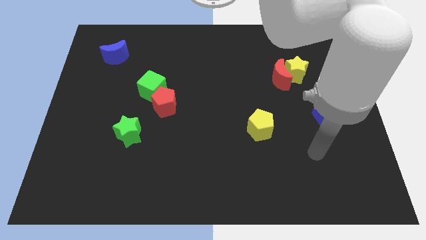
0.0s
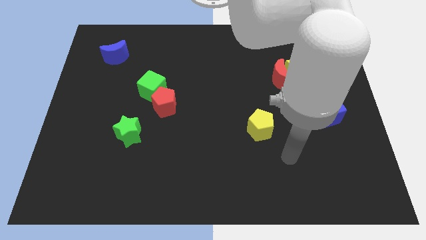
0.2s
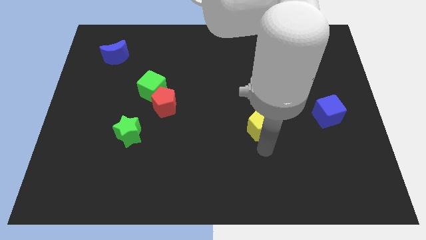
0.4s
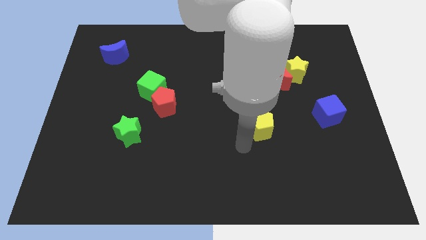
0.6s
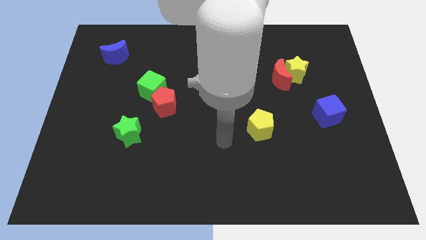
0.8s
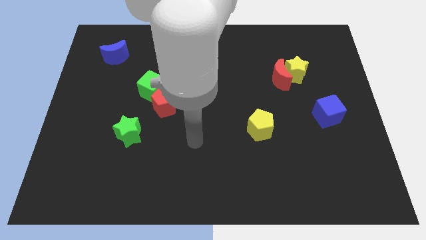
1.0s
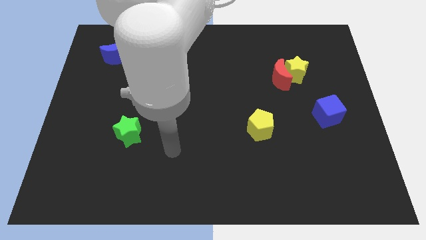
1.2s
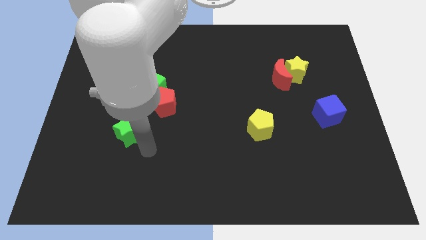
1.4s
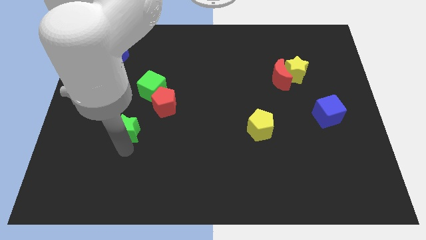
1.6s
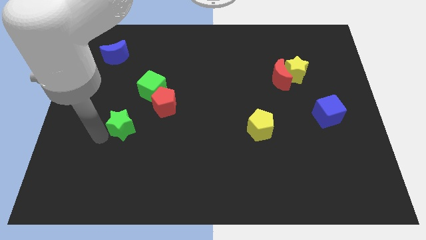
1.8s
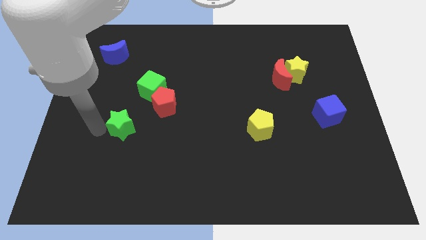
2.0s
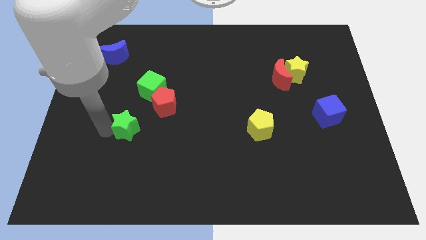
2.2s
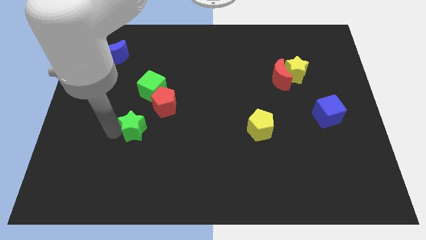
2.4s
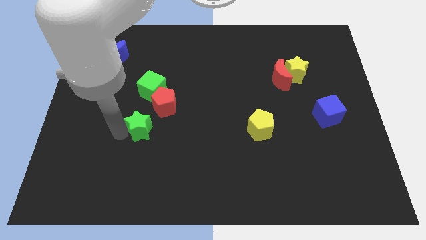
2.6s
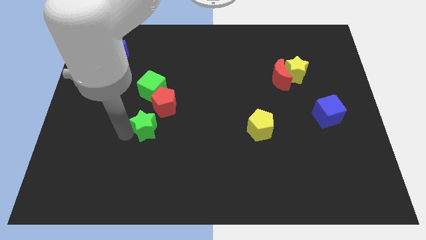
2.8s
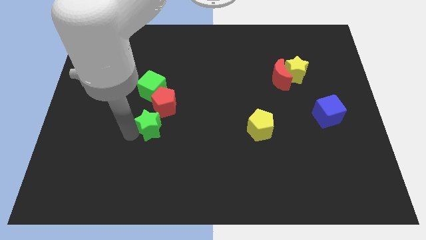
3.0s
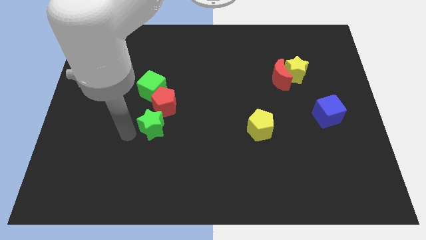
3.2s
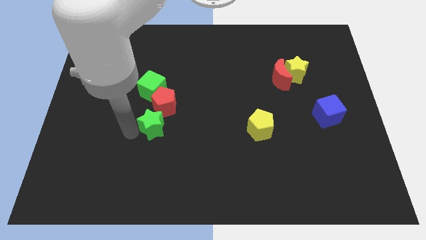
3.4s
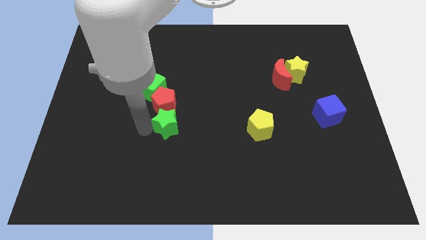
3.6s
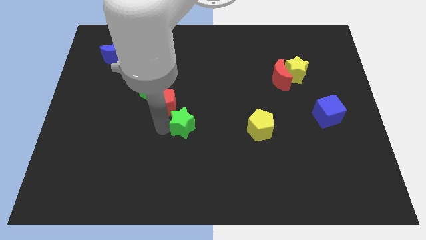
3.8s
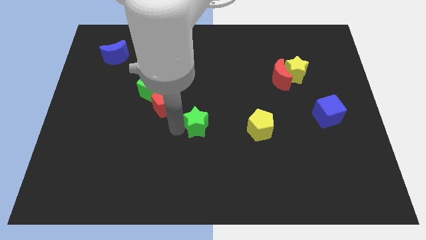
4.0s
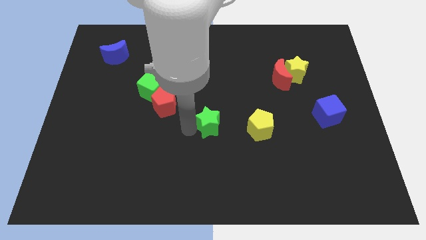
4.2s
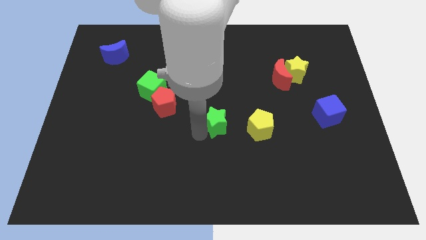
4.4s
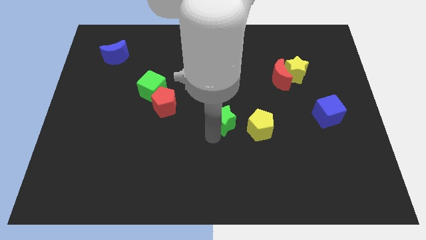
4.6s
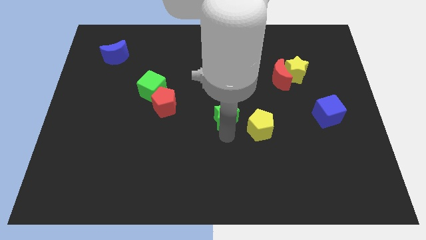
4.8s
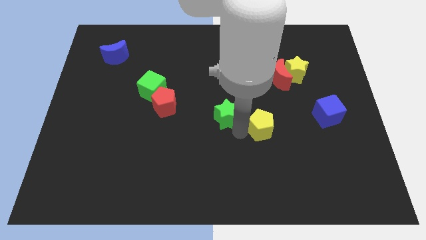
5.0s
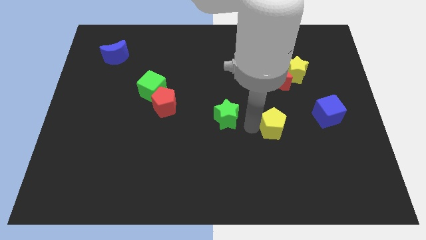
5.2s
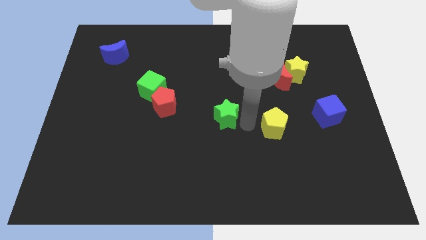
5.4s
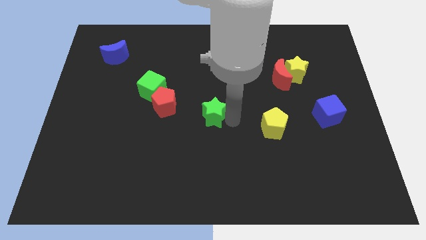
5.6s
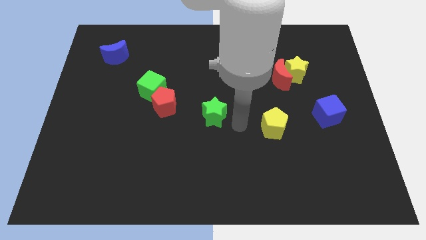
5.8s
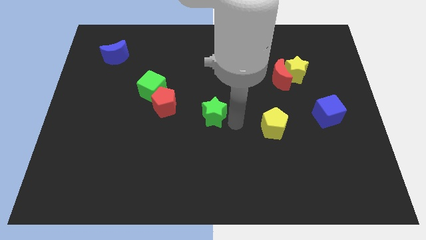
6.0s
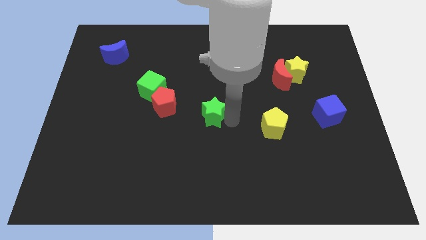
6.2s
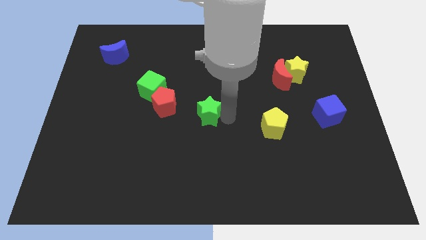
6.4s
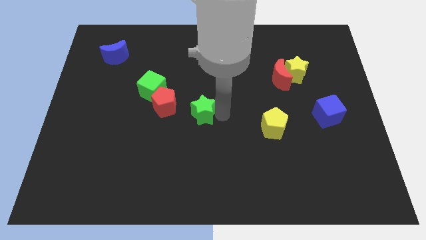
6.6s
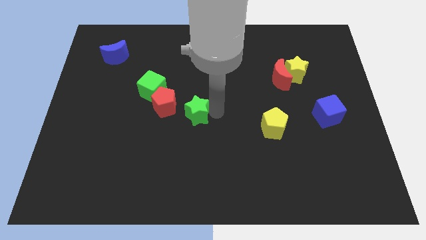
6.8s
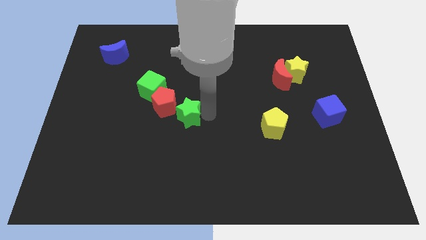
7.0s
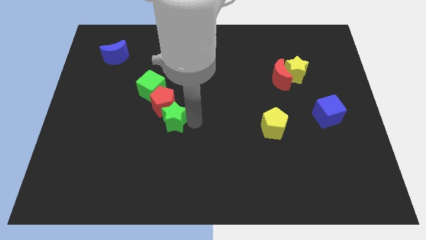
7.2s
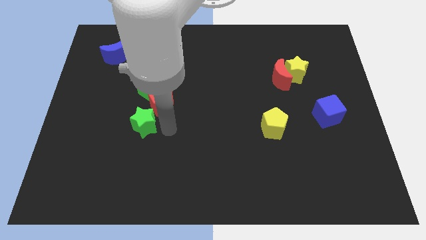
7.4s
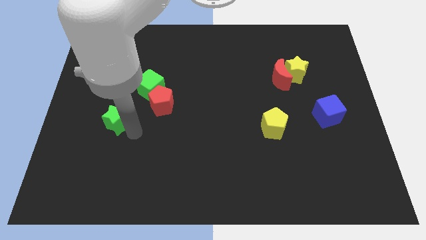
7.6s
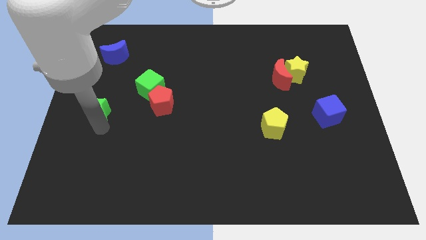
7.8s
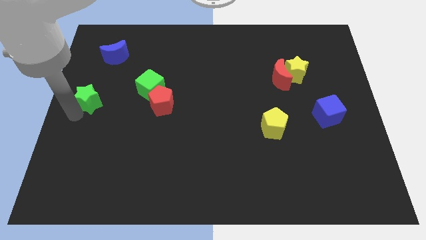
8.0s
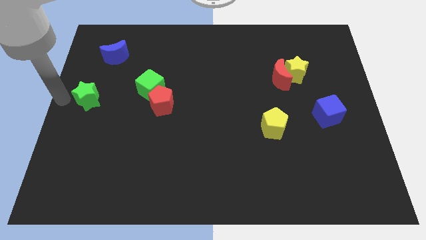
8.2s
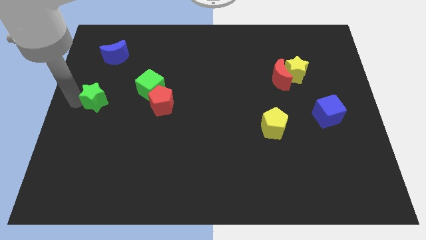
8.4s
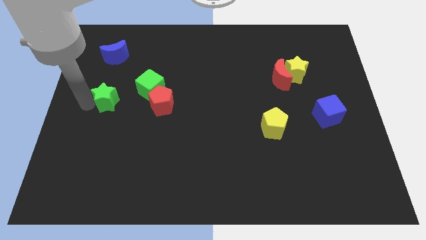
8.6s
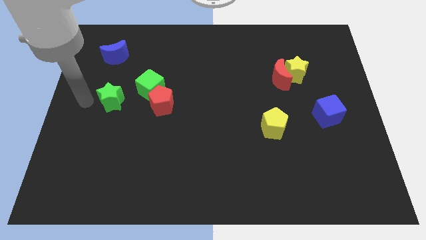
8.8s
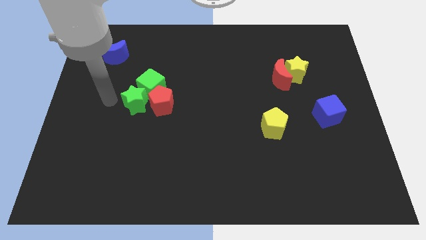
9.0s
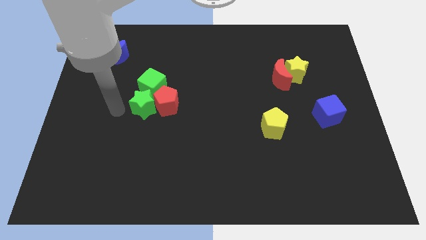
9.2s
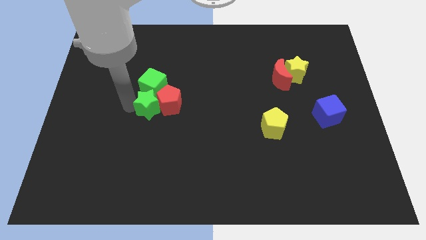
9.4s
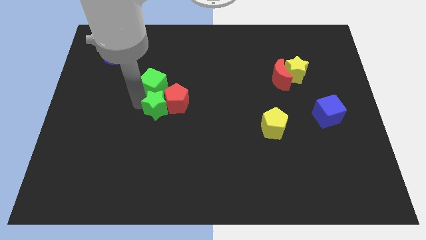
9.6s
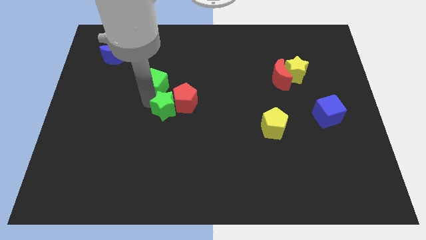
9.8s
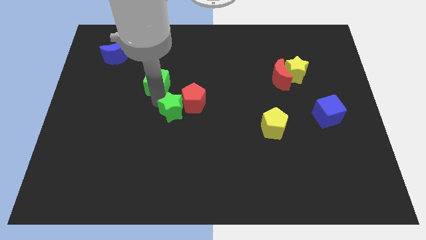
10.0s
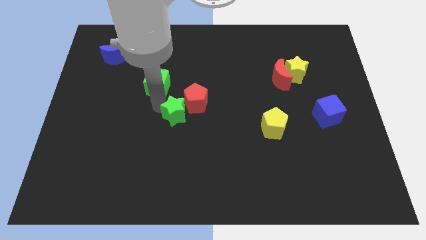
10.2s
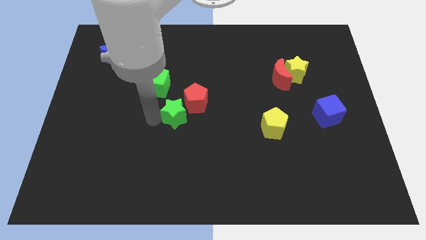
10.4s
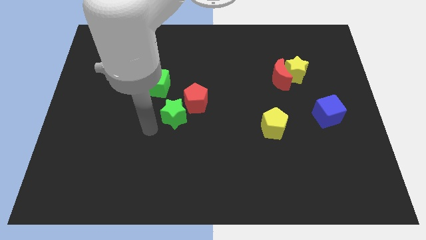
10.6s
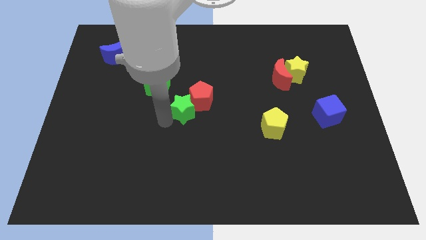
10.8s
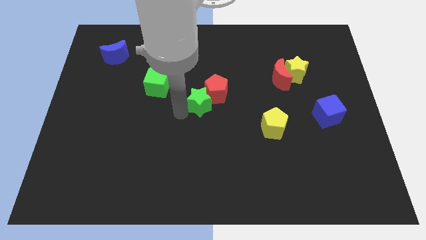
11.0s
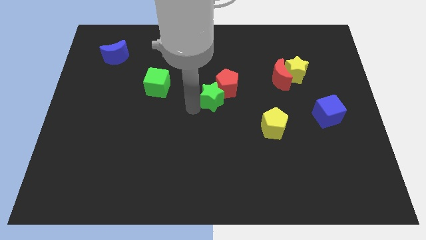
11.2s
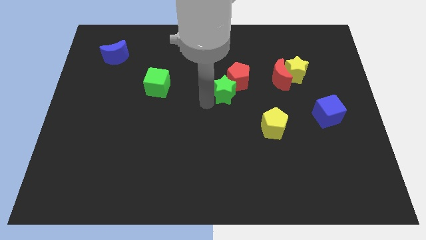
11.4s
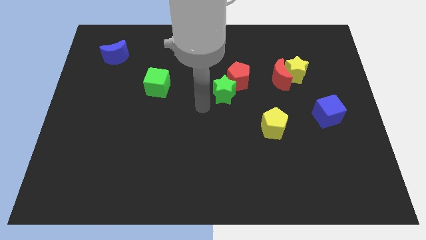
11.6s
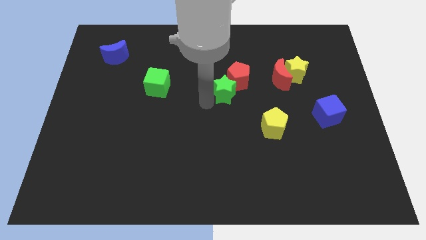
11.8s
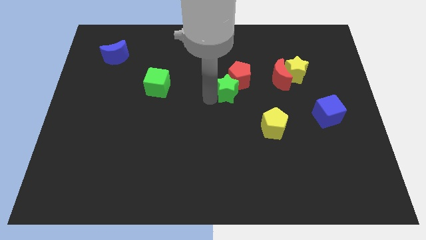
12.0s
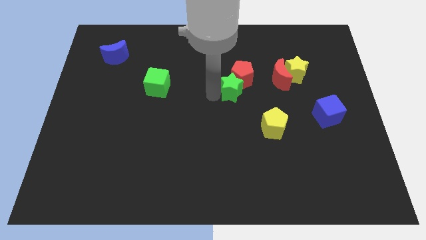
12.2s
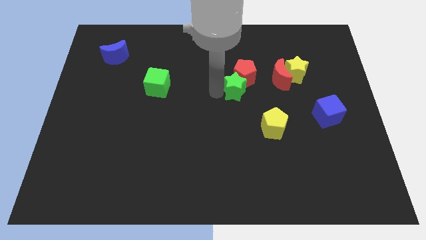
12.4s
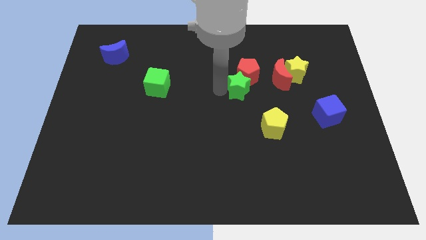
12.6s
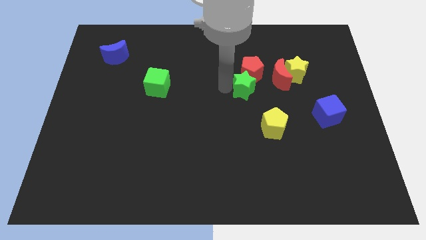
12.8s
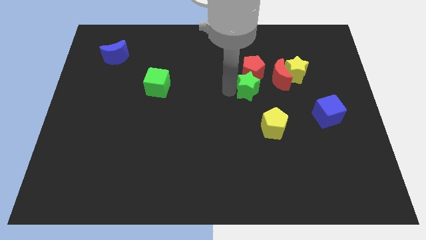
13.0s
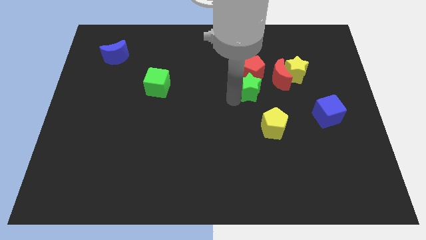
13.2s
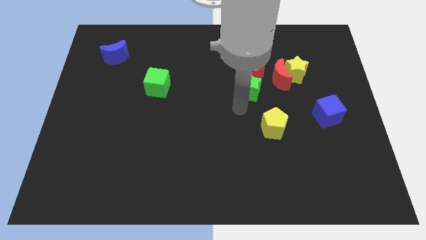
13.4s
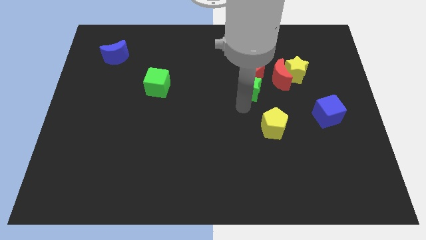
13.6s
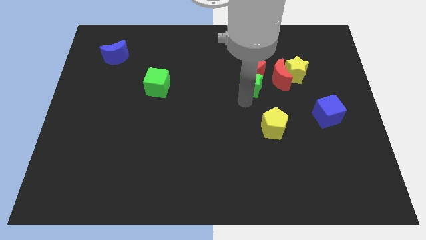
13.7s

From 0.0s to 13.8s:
push the green star just left of the yellow star
